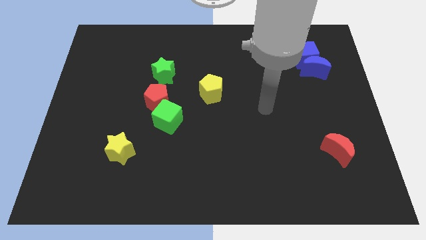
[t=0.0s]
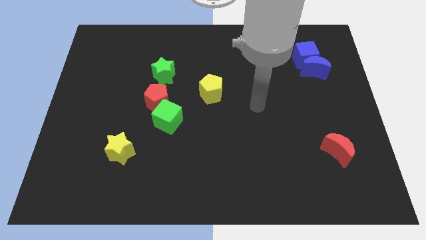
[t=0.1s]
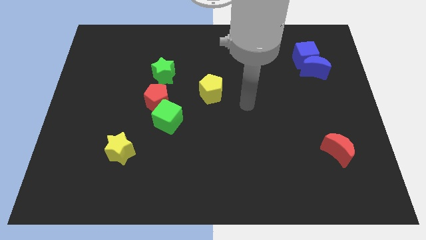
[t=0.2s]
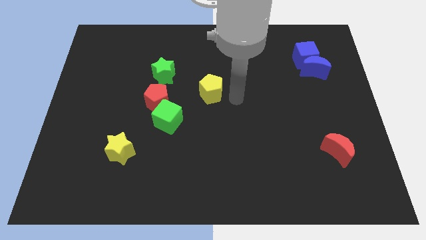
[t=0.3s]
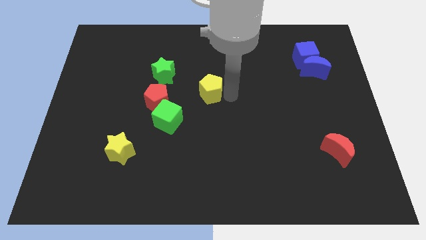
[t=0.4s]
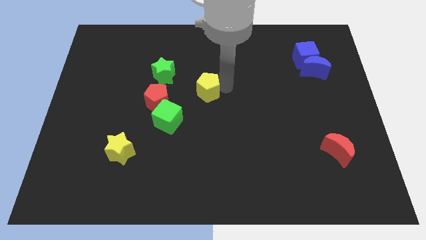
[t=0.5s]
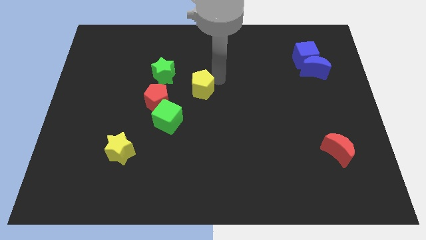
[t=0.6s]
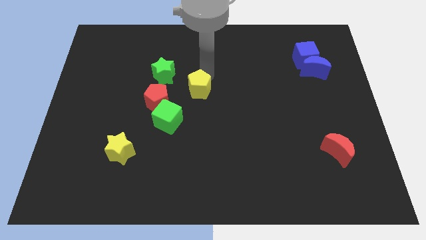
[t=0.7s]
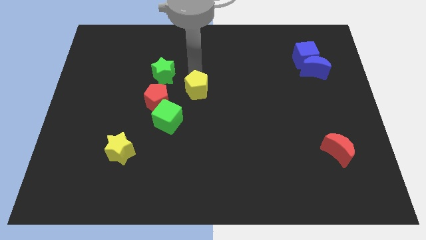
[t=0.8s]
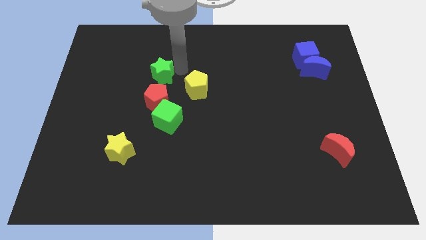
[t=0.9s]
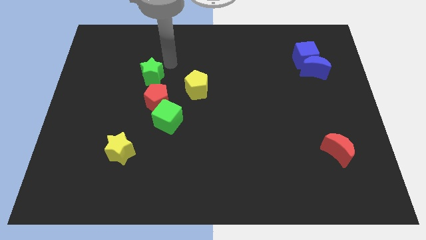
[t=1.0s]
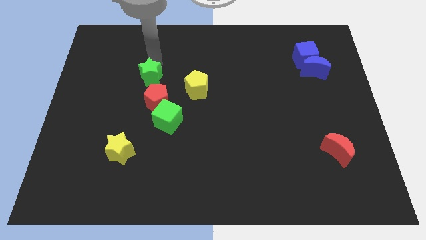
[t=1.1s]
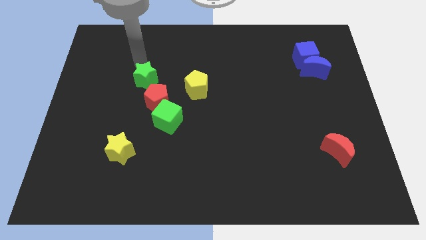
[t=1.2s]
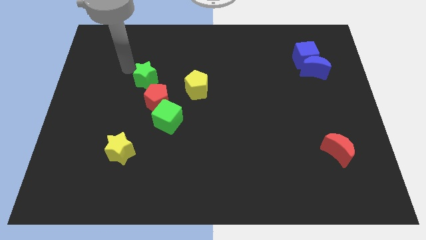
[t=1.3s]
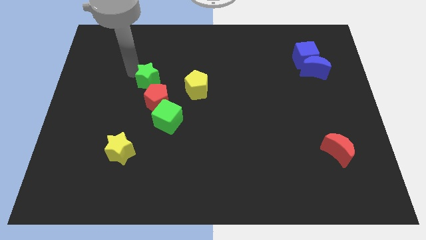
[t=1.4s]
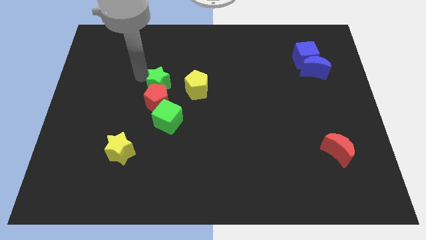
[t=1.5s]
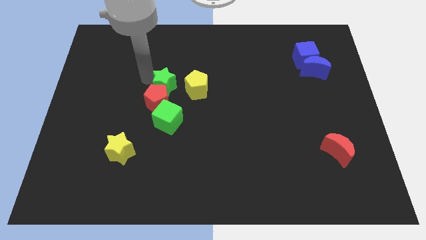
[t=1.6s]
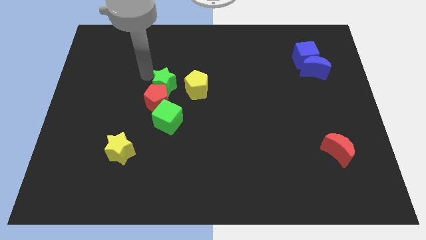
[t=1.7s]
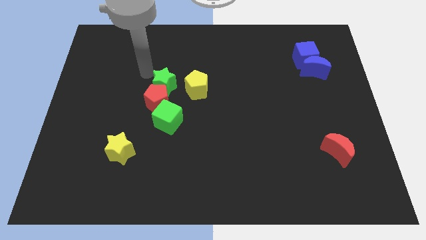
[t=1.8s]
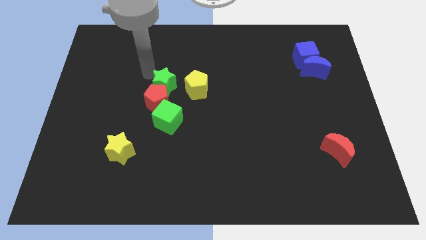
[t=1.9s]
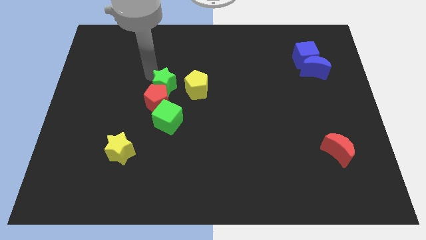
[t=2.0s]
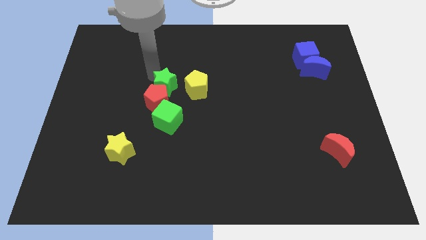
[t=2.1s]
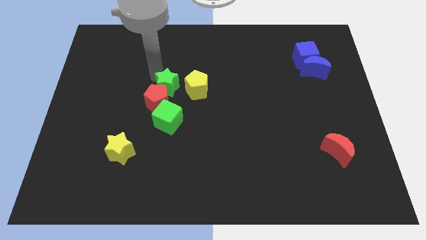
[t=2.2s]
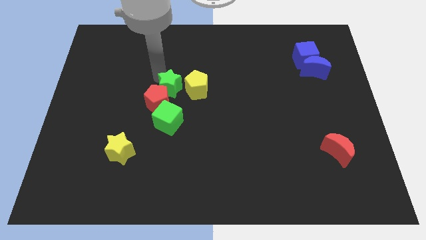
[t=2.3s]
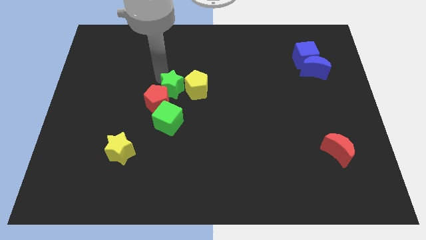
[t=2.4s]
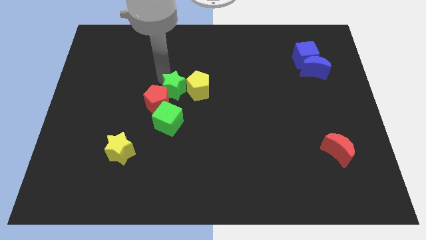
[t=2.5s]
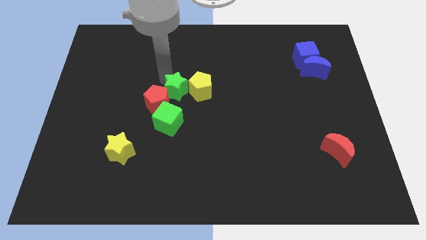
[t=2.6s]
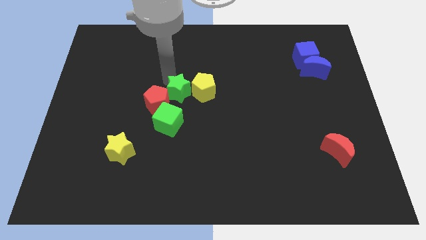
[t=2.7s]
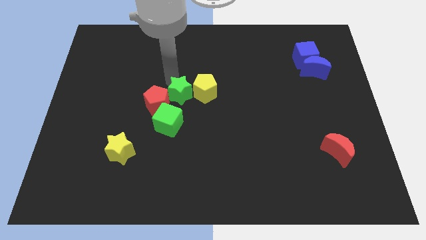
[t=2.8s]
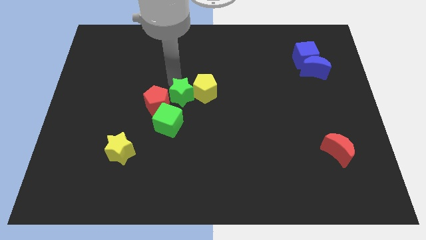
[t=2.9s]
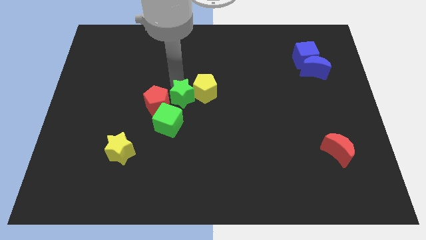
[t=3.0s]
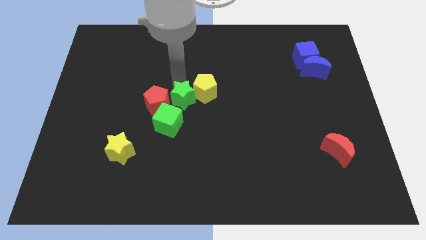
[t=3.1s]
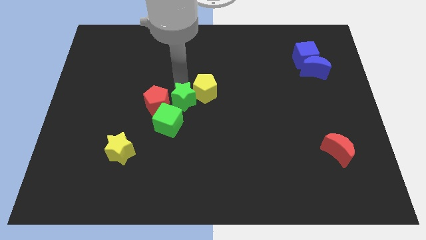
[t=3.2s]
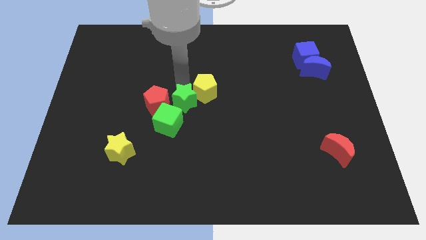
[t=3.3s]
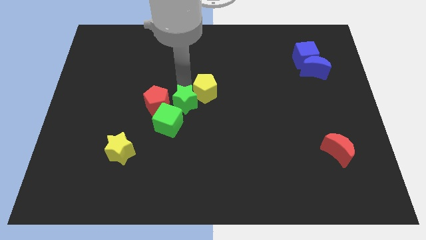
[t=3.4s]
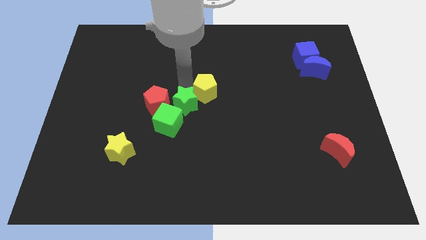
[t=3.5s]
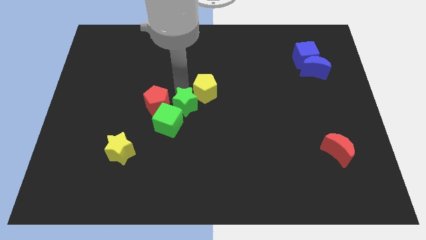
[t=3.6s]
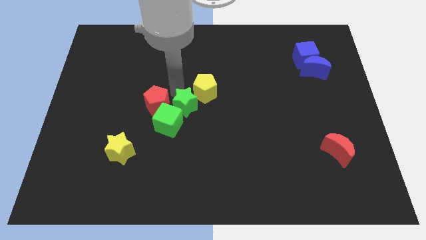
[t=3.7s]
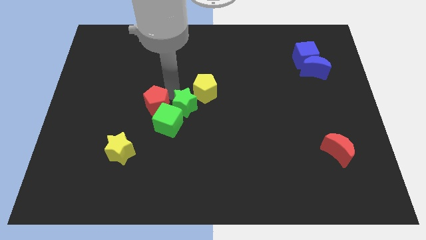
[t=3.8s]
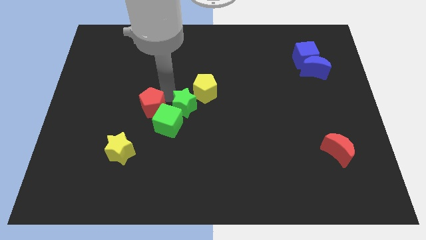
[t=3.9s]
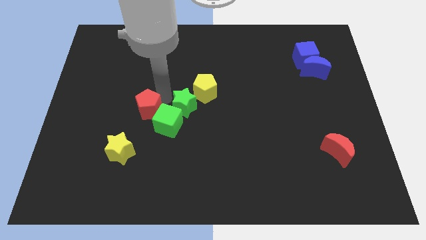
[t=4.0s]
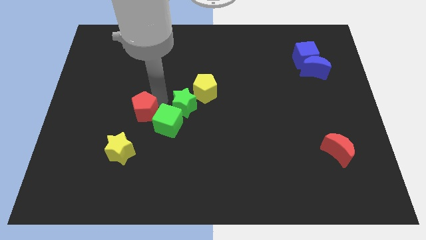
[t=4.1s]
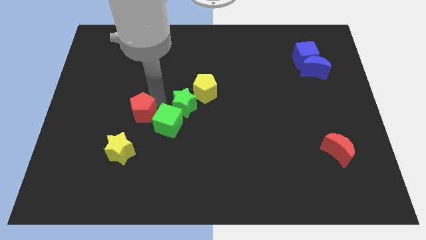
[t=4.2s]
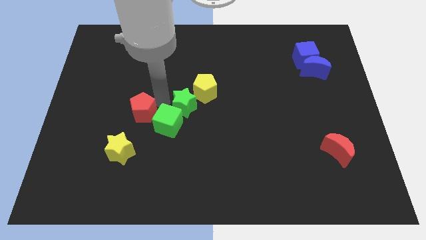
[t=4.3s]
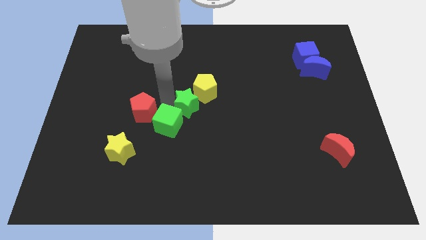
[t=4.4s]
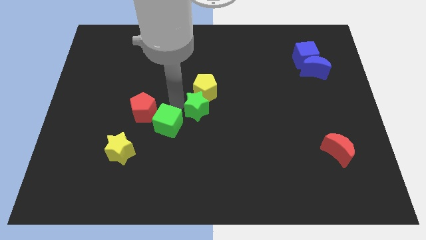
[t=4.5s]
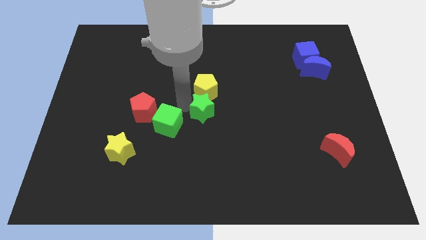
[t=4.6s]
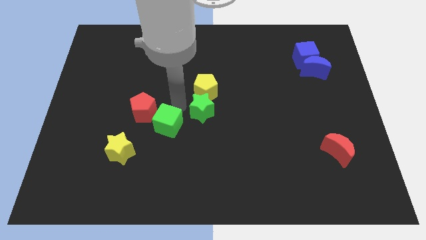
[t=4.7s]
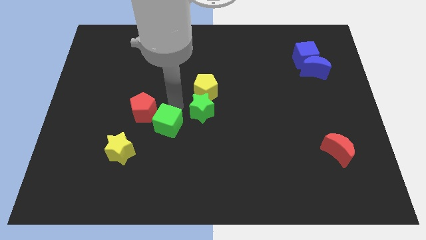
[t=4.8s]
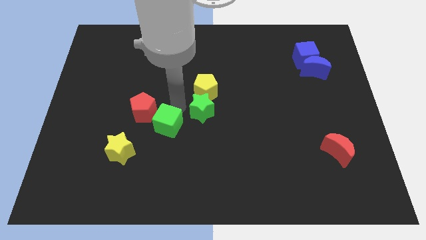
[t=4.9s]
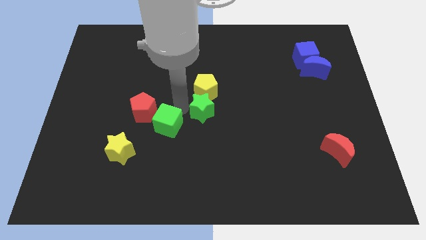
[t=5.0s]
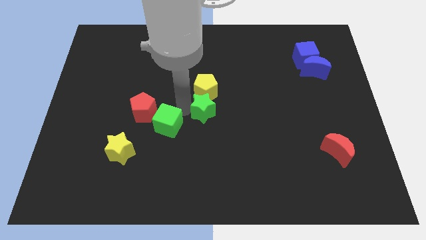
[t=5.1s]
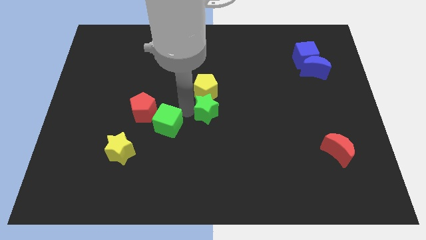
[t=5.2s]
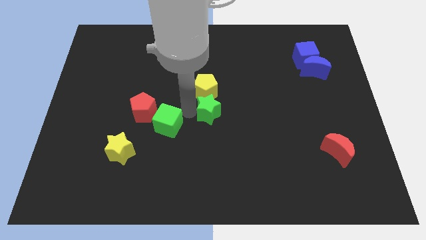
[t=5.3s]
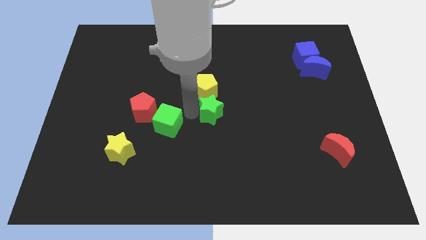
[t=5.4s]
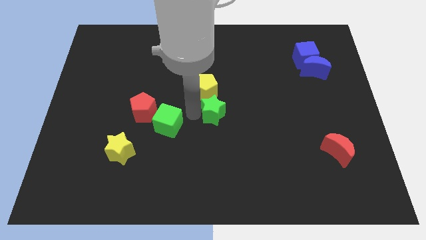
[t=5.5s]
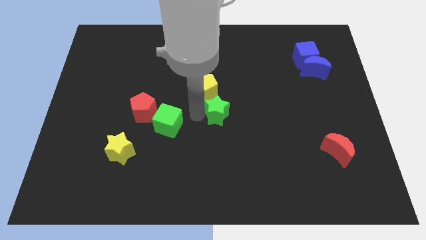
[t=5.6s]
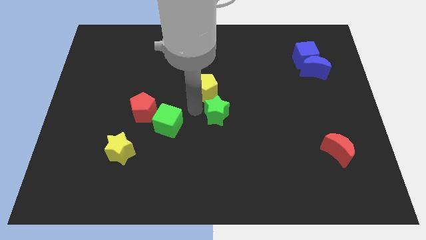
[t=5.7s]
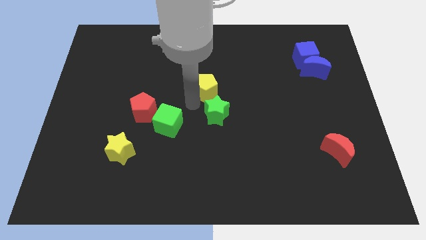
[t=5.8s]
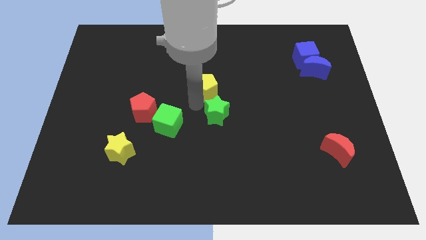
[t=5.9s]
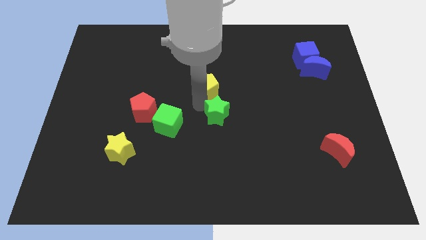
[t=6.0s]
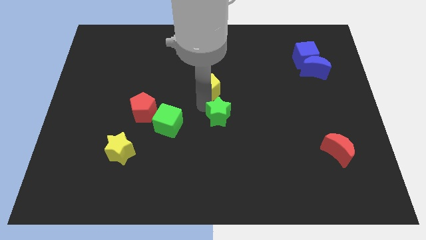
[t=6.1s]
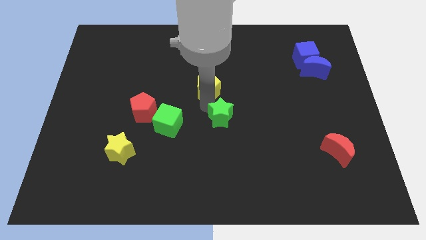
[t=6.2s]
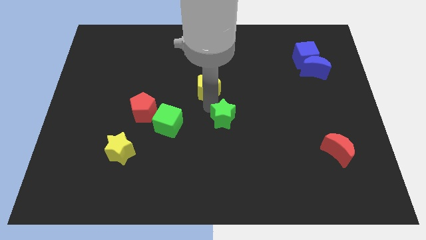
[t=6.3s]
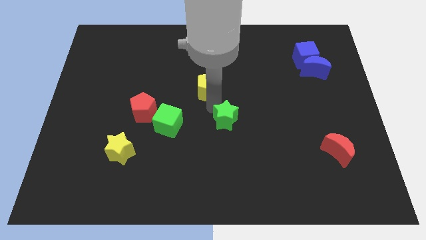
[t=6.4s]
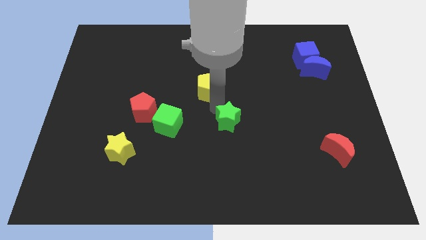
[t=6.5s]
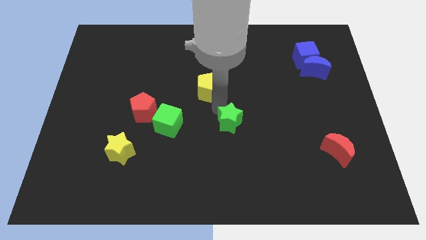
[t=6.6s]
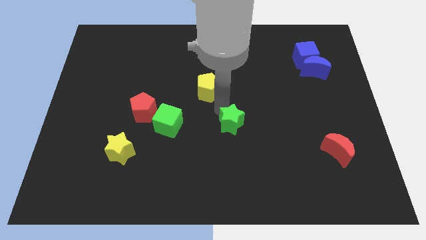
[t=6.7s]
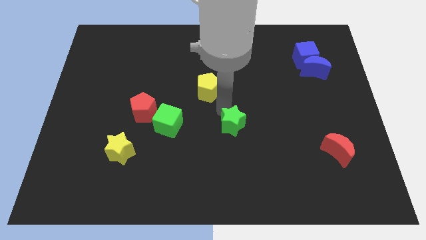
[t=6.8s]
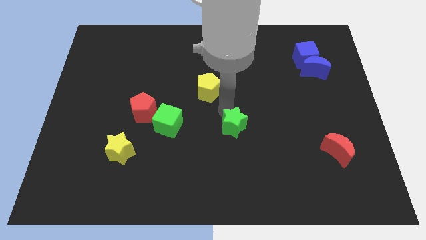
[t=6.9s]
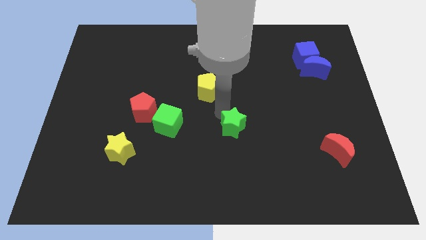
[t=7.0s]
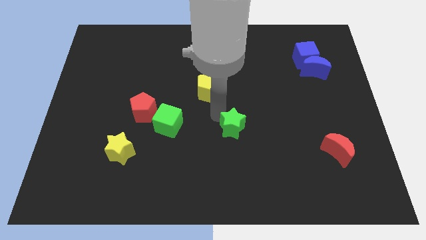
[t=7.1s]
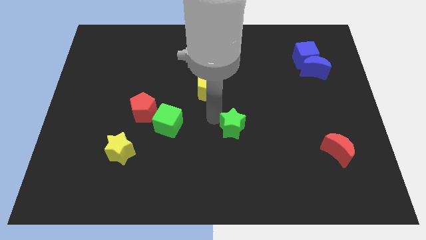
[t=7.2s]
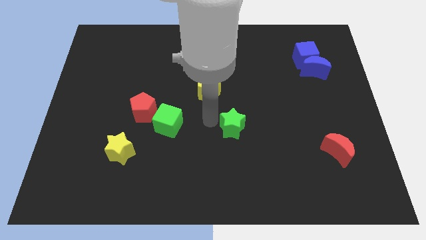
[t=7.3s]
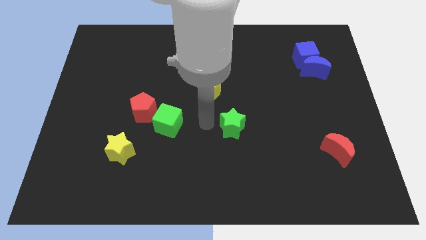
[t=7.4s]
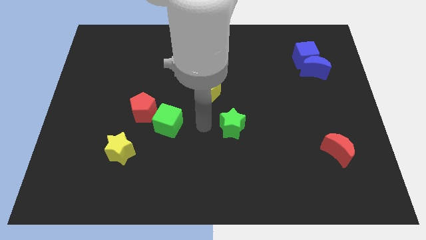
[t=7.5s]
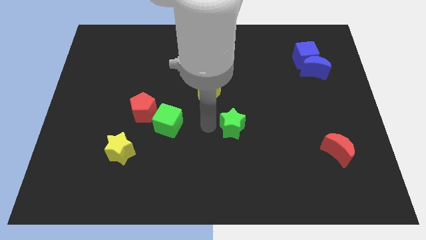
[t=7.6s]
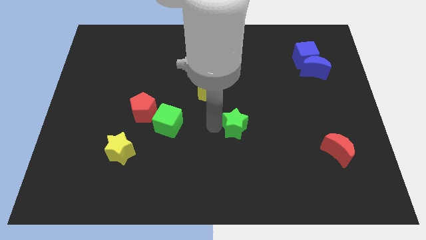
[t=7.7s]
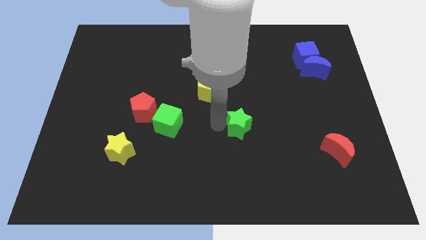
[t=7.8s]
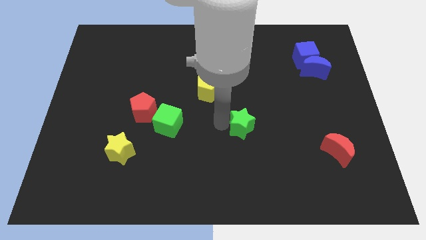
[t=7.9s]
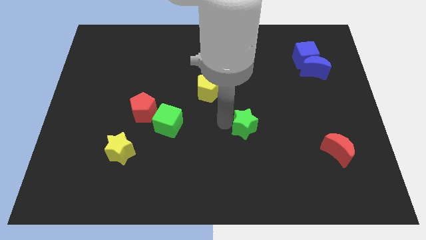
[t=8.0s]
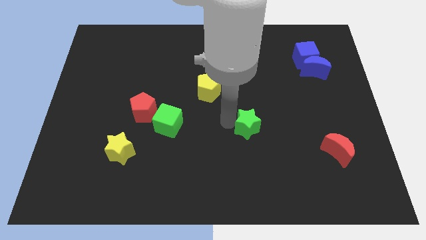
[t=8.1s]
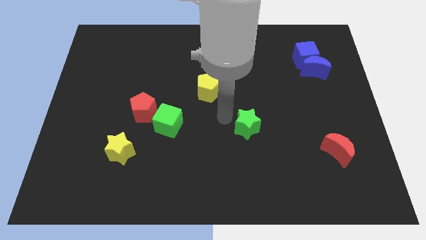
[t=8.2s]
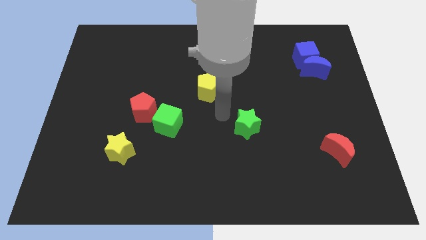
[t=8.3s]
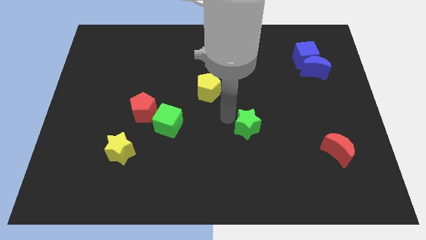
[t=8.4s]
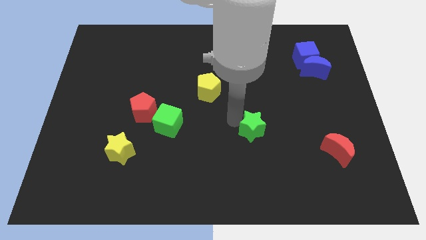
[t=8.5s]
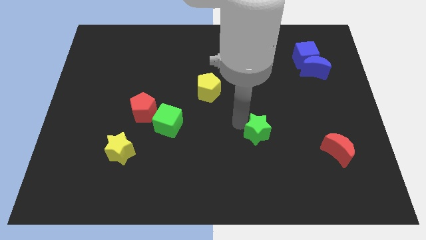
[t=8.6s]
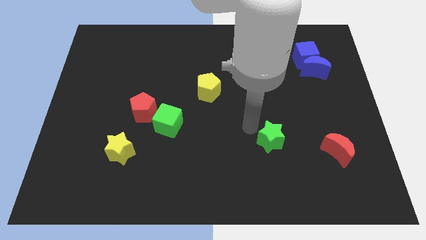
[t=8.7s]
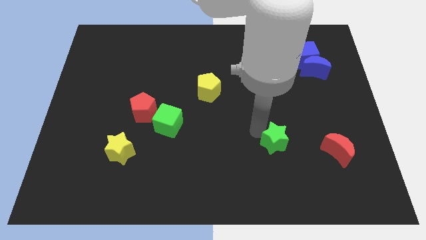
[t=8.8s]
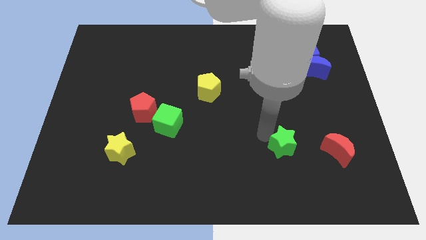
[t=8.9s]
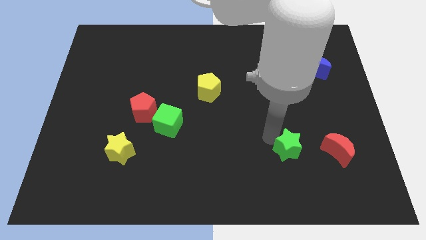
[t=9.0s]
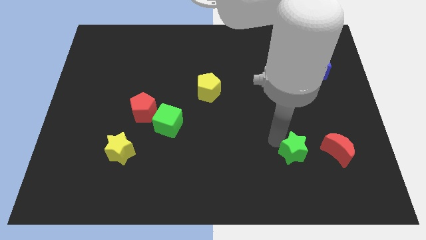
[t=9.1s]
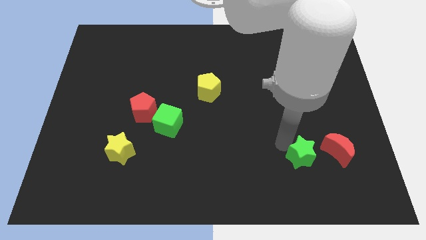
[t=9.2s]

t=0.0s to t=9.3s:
put the green star to the bottom left side of the red moon
